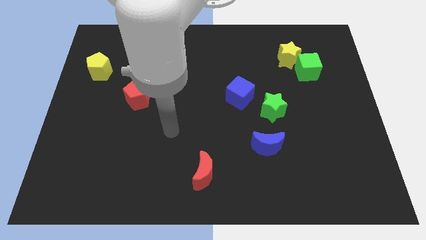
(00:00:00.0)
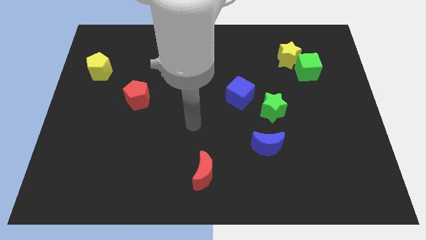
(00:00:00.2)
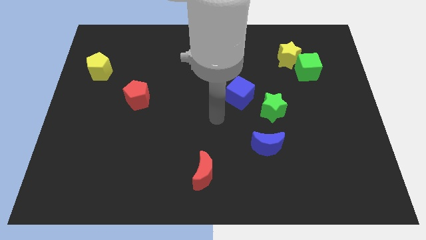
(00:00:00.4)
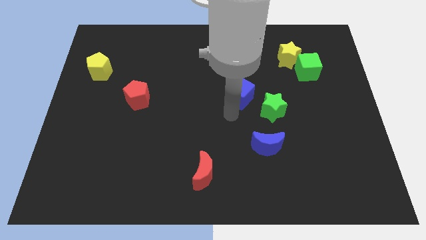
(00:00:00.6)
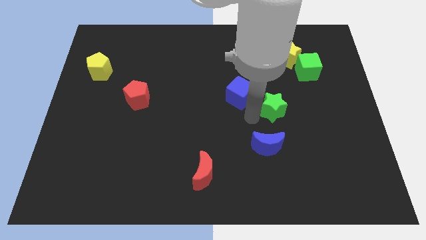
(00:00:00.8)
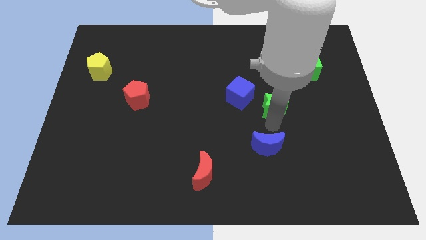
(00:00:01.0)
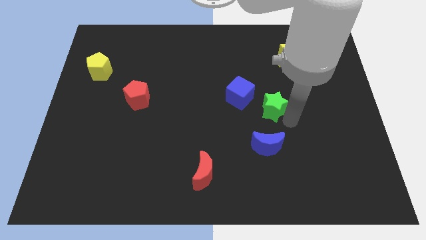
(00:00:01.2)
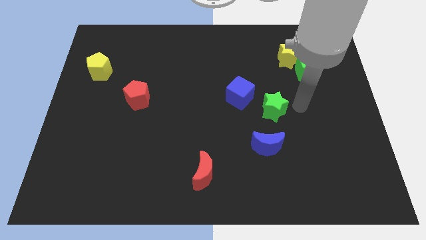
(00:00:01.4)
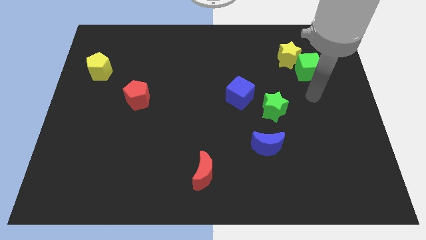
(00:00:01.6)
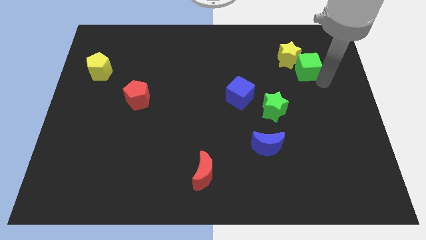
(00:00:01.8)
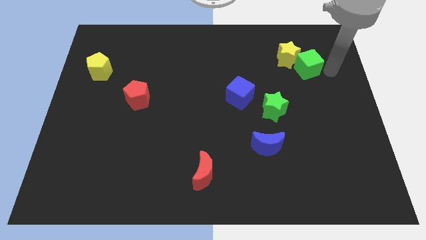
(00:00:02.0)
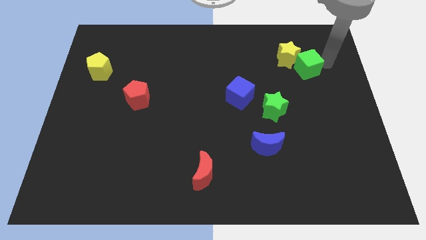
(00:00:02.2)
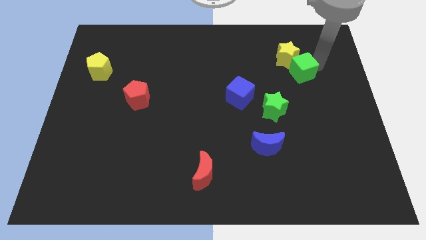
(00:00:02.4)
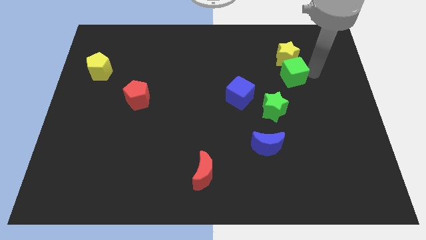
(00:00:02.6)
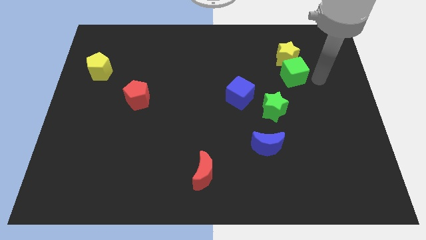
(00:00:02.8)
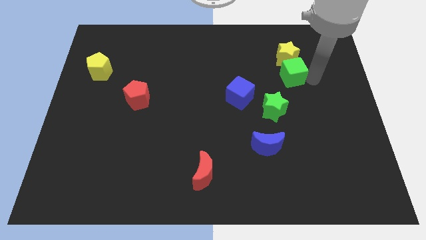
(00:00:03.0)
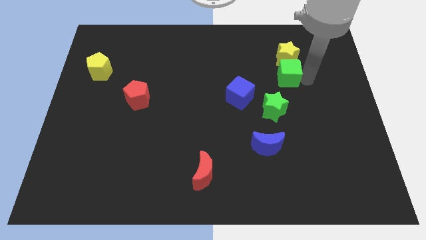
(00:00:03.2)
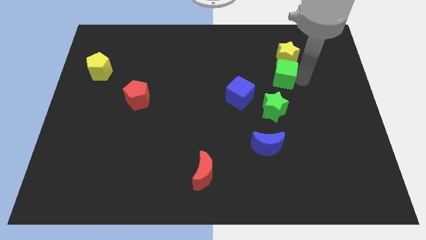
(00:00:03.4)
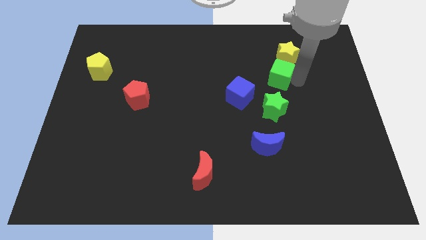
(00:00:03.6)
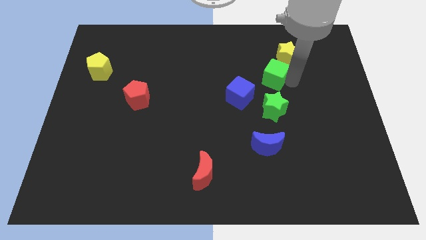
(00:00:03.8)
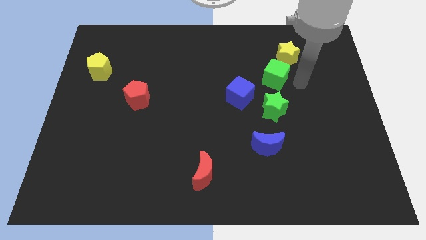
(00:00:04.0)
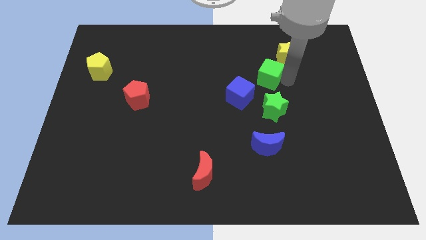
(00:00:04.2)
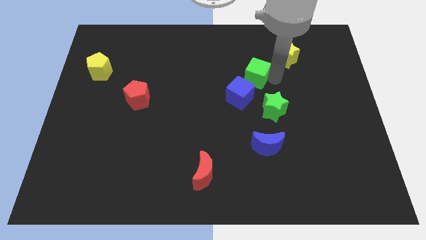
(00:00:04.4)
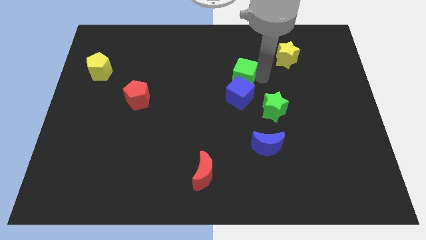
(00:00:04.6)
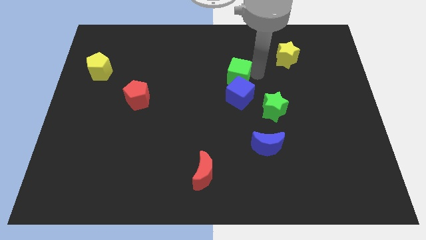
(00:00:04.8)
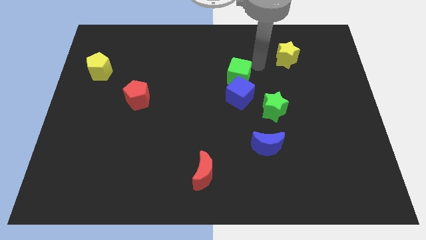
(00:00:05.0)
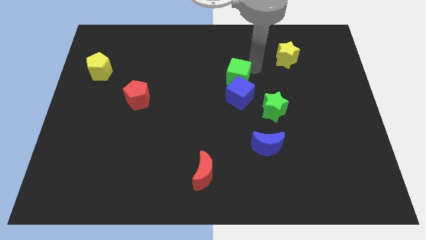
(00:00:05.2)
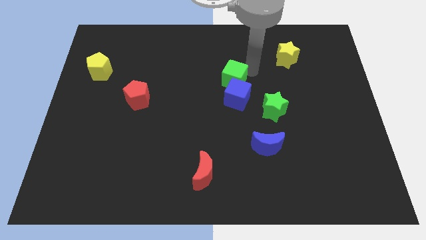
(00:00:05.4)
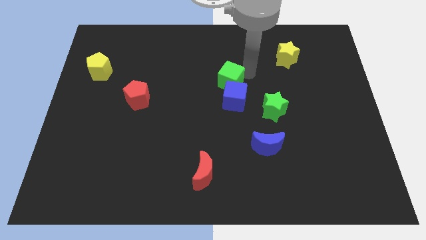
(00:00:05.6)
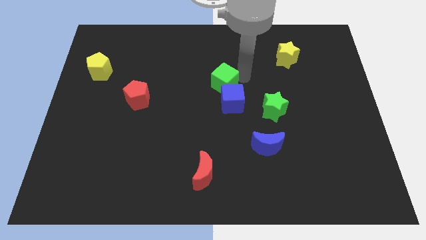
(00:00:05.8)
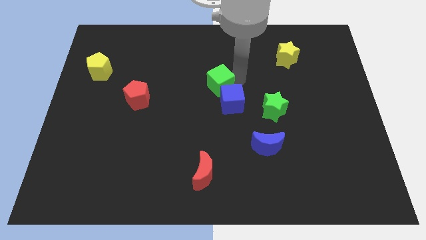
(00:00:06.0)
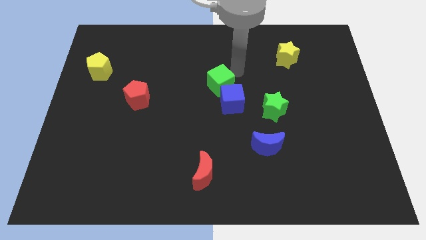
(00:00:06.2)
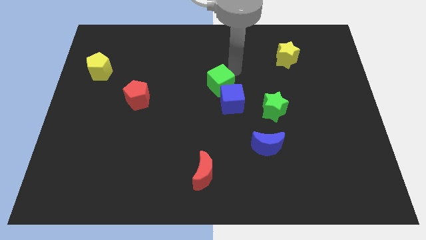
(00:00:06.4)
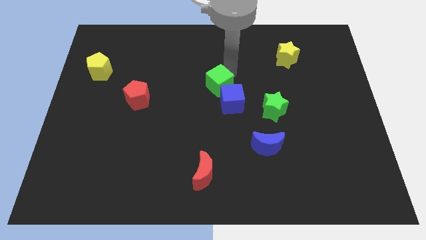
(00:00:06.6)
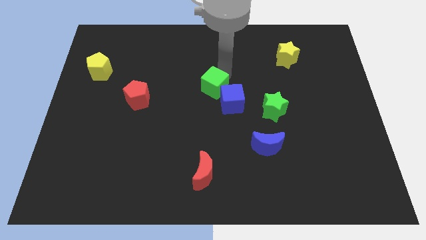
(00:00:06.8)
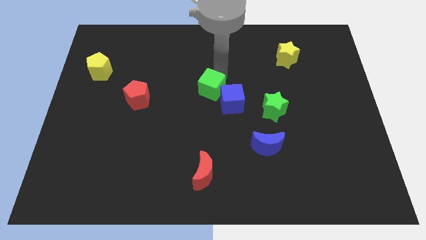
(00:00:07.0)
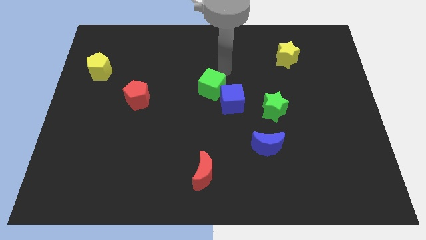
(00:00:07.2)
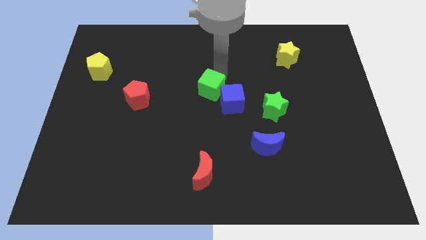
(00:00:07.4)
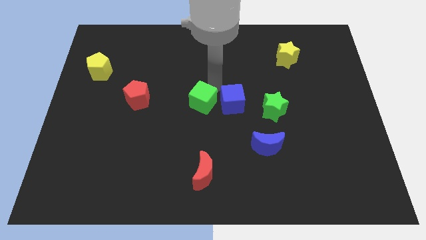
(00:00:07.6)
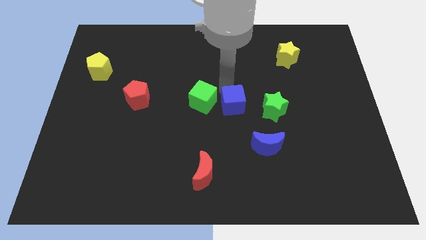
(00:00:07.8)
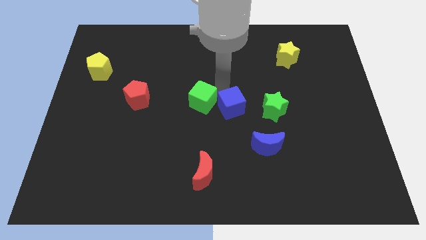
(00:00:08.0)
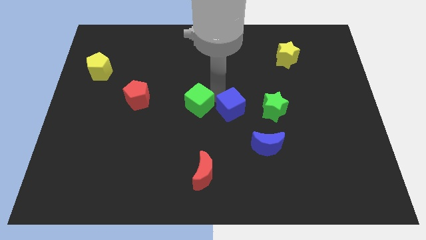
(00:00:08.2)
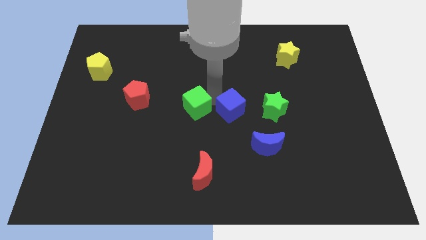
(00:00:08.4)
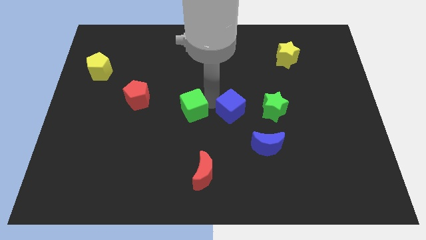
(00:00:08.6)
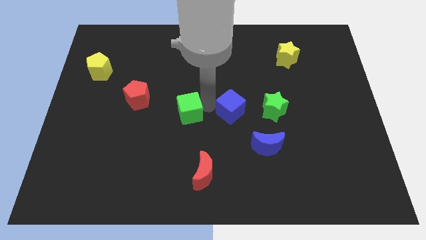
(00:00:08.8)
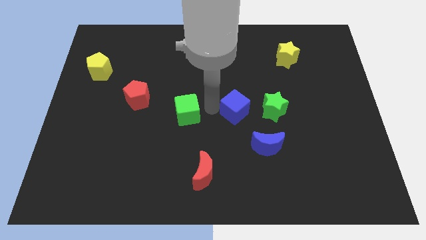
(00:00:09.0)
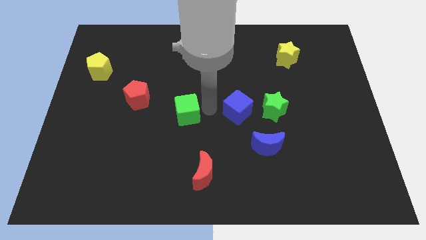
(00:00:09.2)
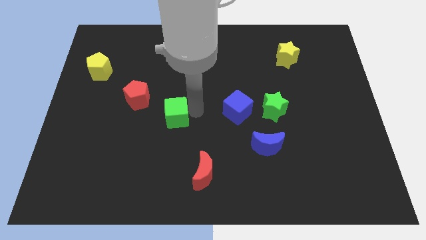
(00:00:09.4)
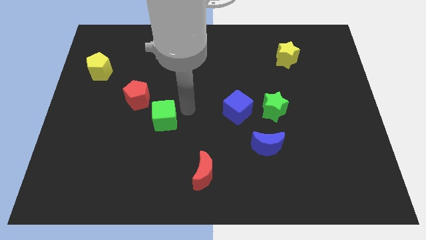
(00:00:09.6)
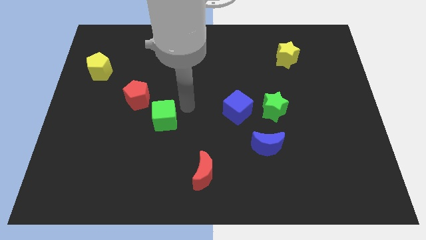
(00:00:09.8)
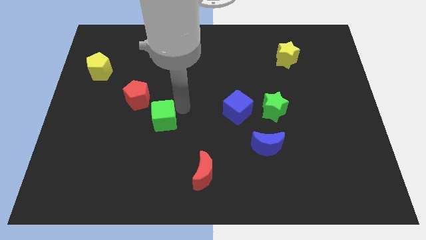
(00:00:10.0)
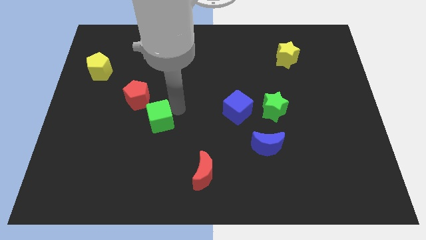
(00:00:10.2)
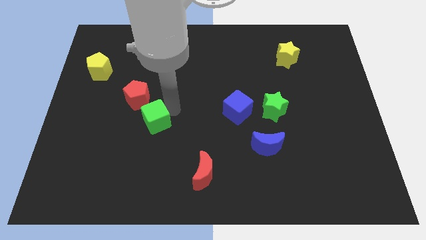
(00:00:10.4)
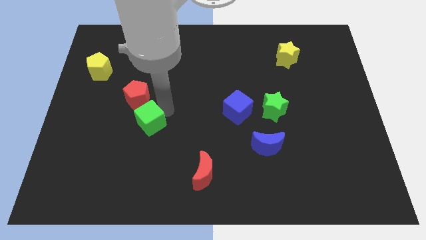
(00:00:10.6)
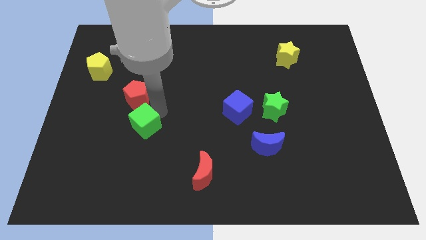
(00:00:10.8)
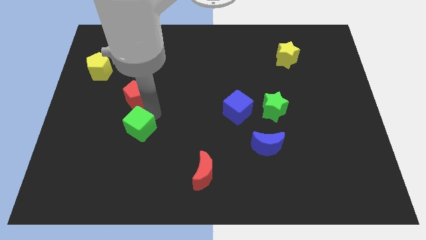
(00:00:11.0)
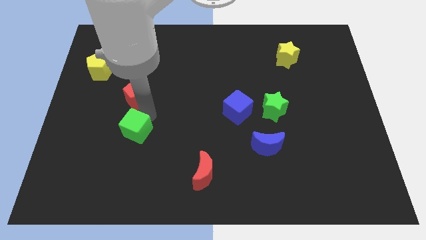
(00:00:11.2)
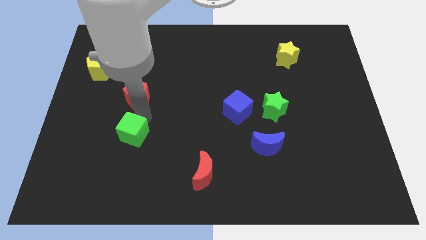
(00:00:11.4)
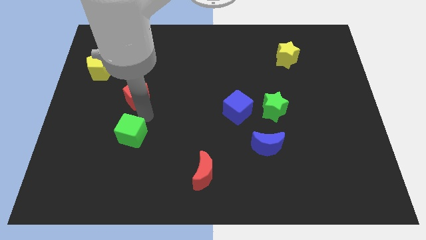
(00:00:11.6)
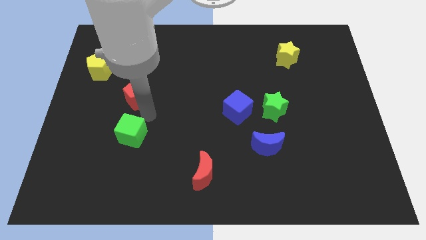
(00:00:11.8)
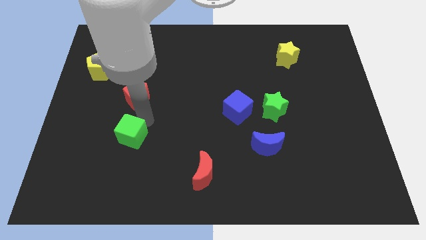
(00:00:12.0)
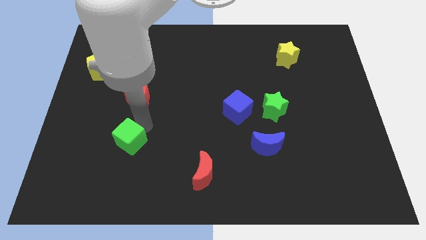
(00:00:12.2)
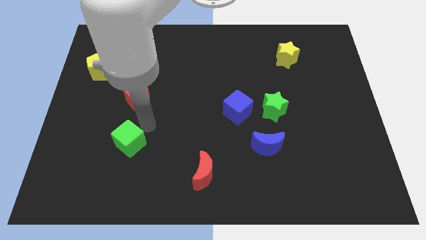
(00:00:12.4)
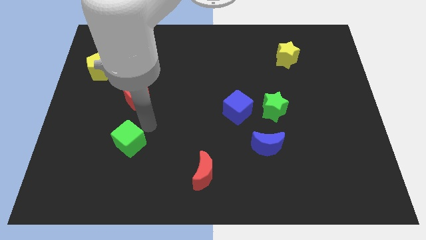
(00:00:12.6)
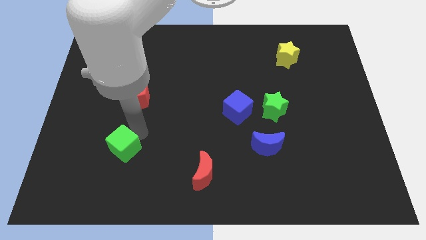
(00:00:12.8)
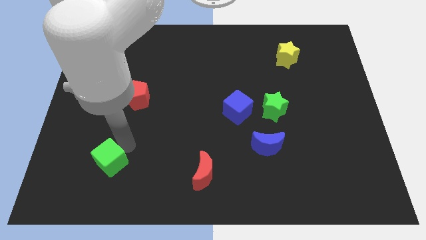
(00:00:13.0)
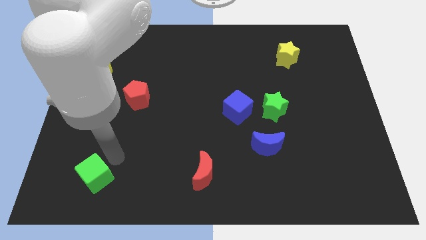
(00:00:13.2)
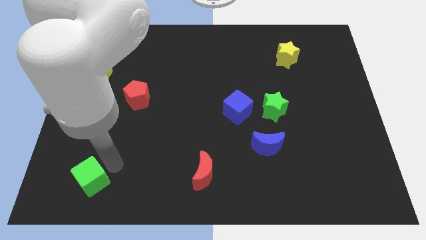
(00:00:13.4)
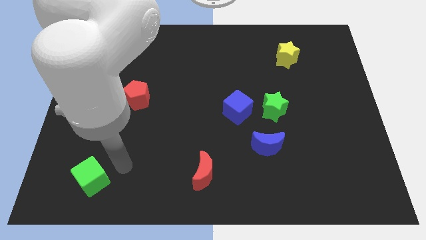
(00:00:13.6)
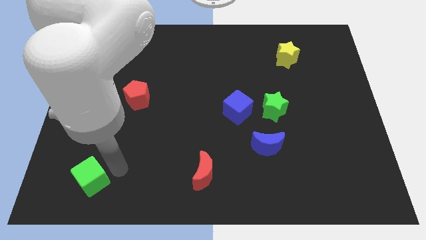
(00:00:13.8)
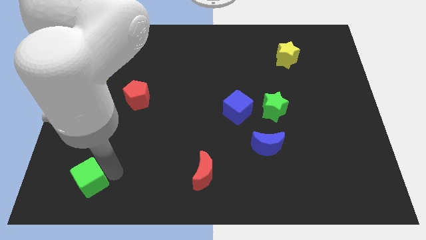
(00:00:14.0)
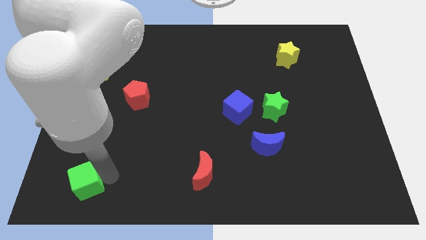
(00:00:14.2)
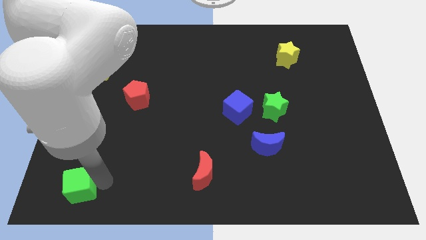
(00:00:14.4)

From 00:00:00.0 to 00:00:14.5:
push the green cube to the bottom left of the board
